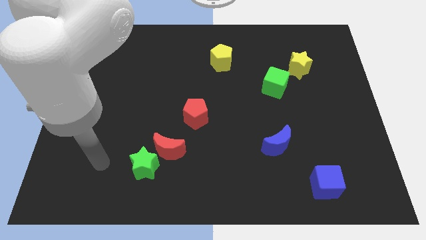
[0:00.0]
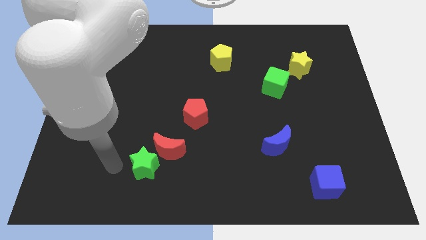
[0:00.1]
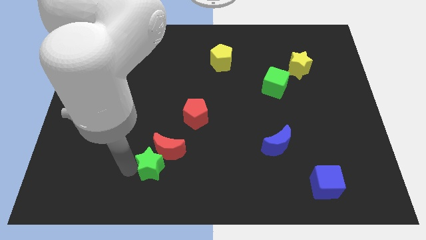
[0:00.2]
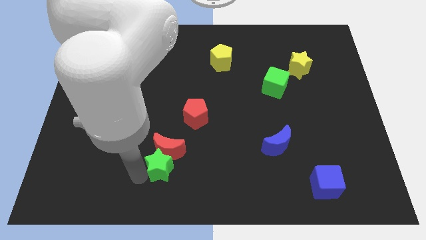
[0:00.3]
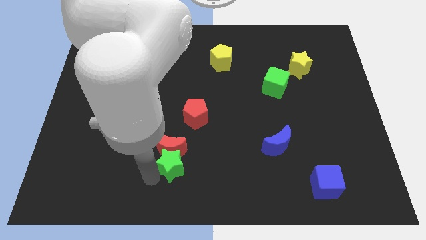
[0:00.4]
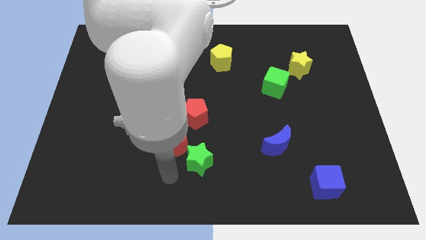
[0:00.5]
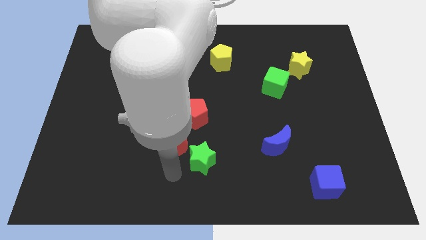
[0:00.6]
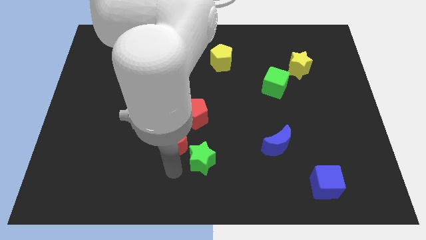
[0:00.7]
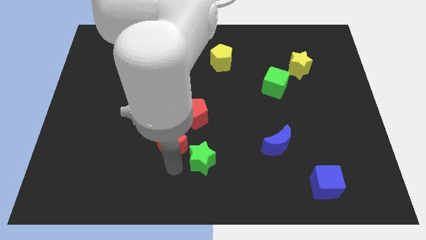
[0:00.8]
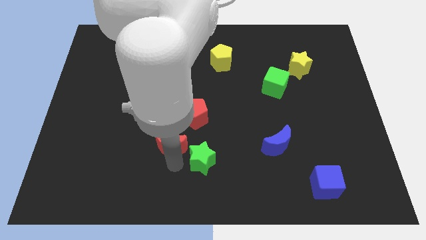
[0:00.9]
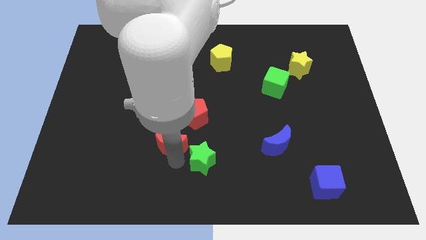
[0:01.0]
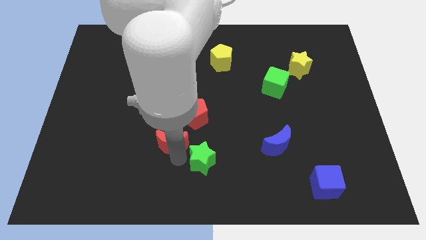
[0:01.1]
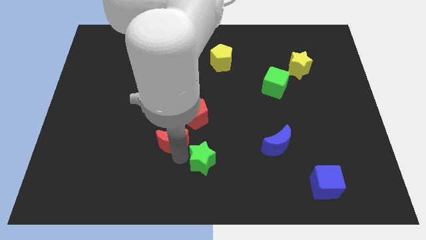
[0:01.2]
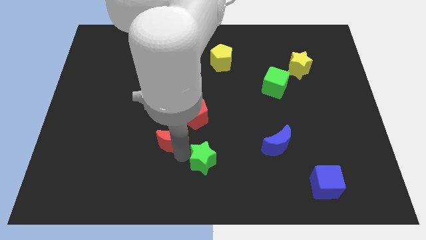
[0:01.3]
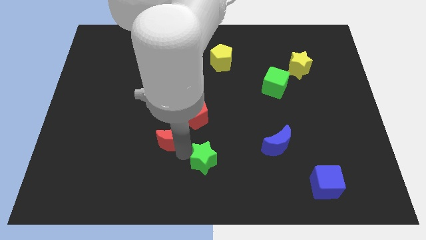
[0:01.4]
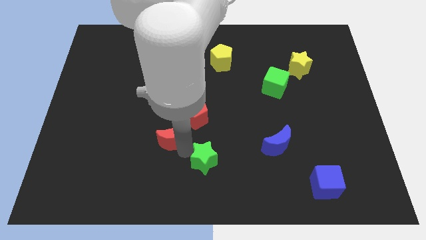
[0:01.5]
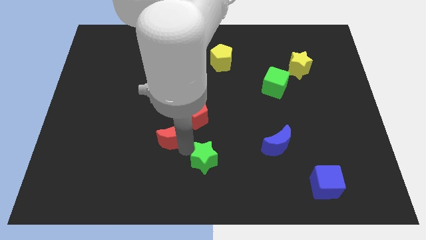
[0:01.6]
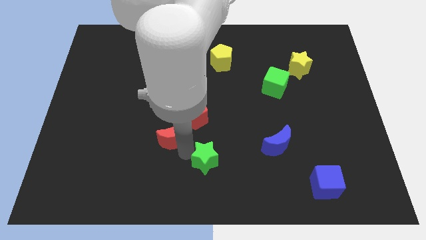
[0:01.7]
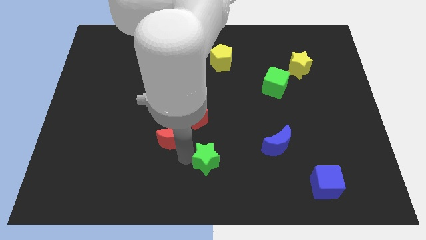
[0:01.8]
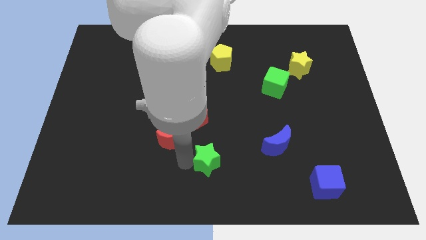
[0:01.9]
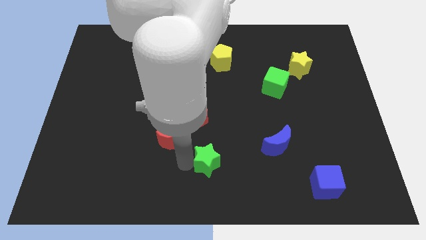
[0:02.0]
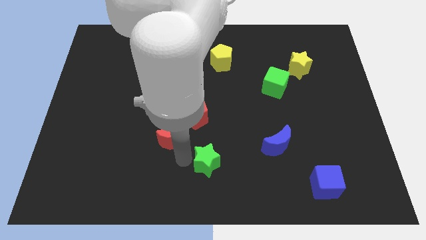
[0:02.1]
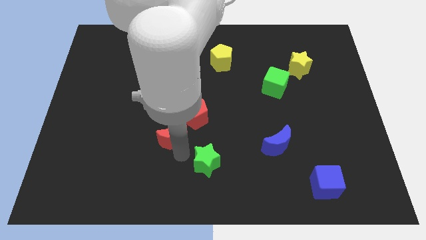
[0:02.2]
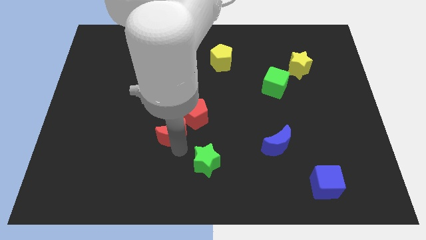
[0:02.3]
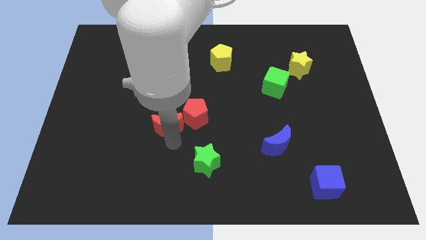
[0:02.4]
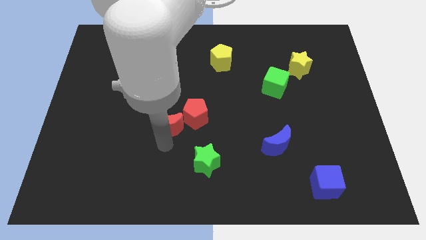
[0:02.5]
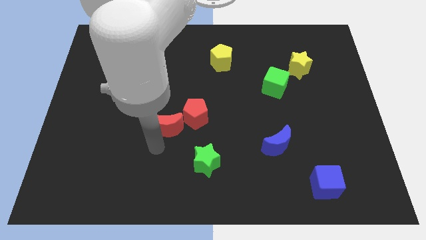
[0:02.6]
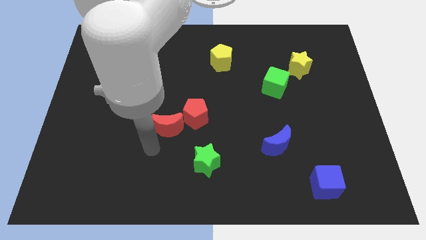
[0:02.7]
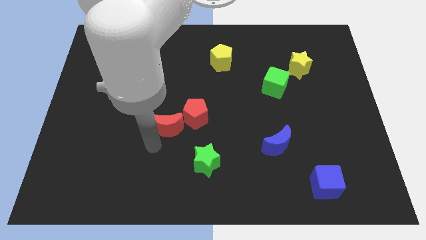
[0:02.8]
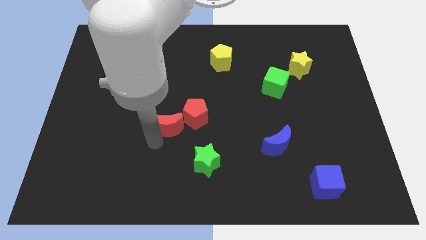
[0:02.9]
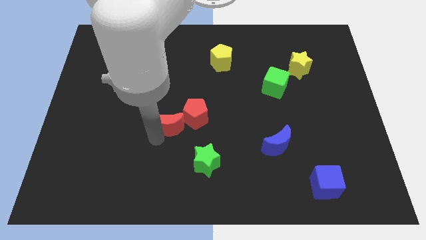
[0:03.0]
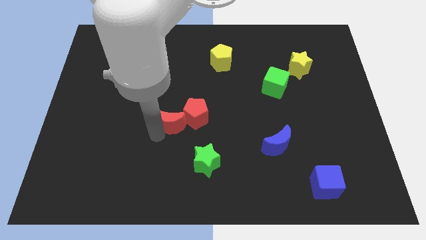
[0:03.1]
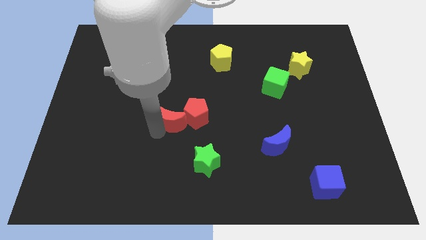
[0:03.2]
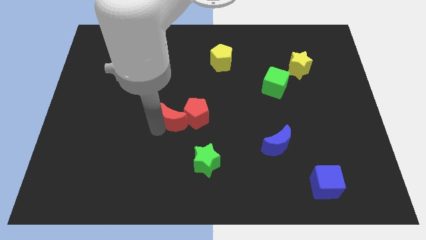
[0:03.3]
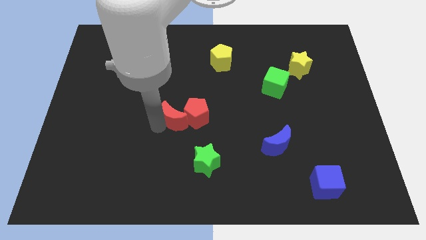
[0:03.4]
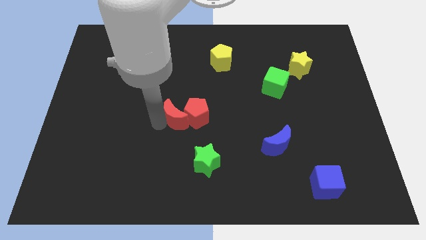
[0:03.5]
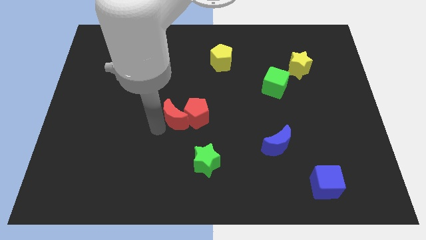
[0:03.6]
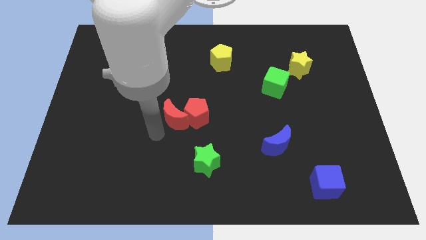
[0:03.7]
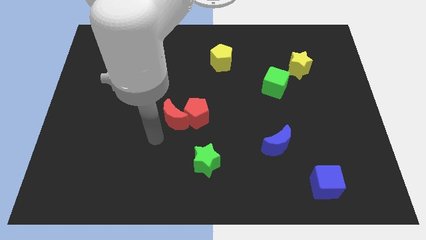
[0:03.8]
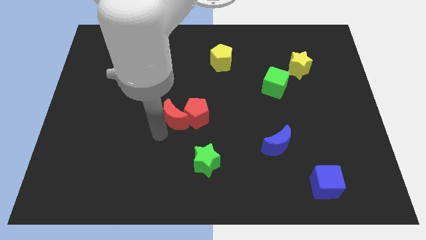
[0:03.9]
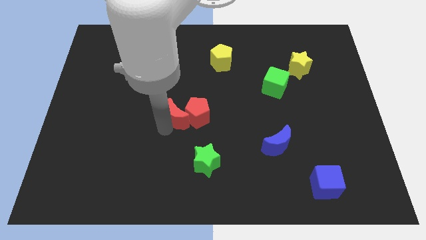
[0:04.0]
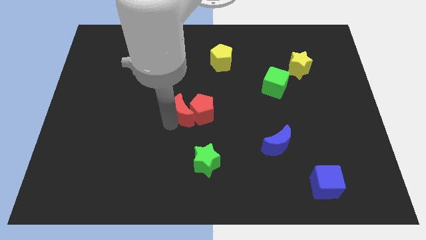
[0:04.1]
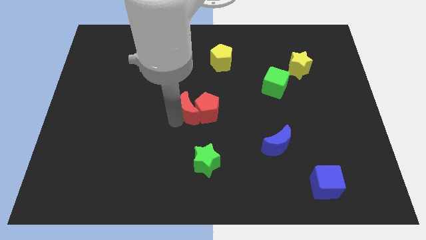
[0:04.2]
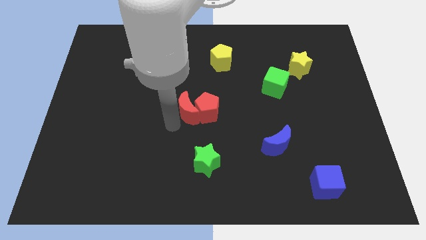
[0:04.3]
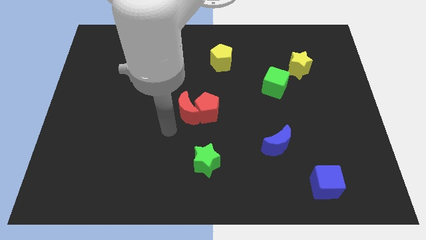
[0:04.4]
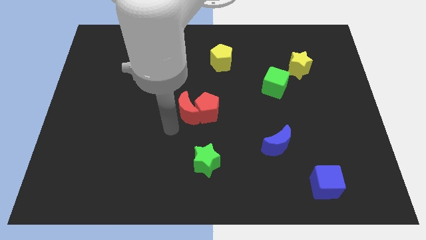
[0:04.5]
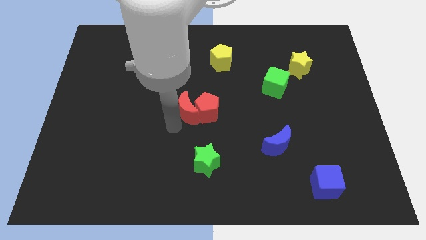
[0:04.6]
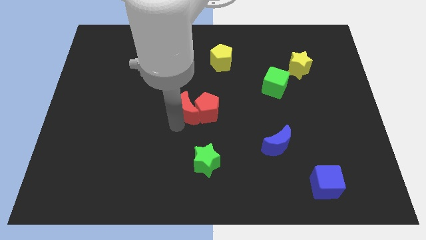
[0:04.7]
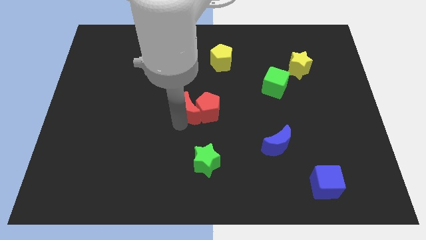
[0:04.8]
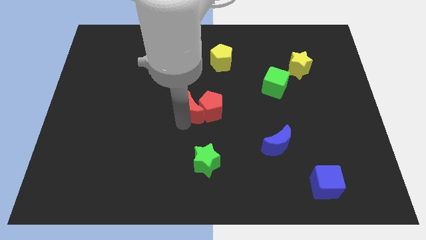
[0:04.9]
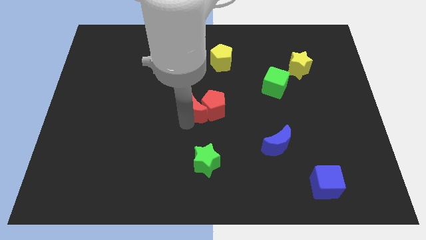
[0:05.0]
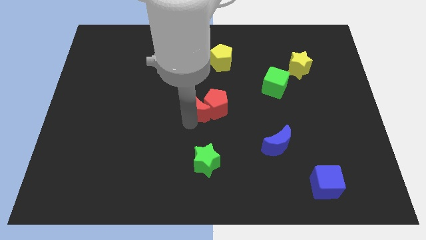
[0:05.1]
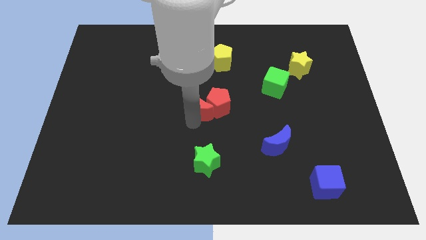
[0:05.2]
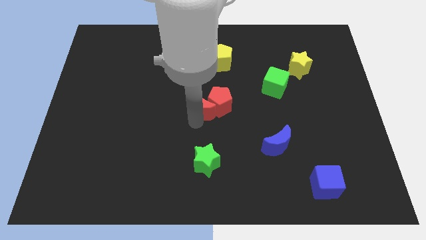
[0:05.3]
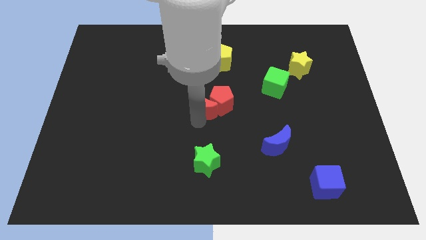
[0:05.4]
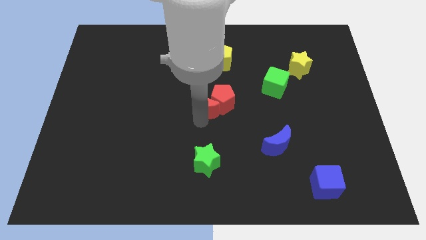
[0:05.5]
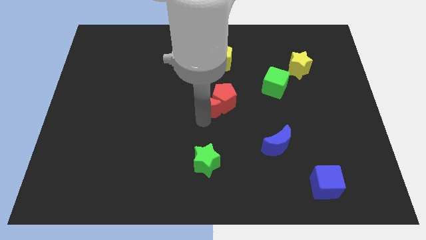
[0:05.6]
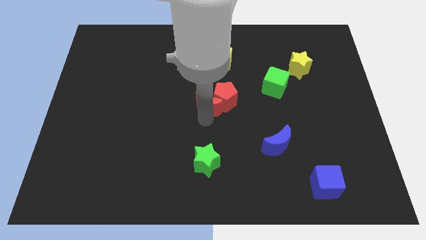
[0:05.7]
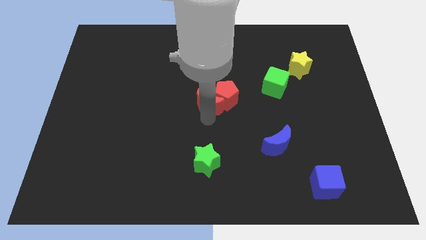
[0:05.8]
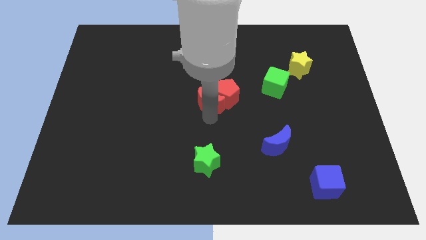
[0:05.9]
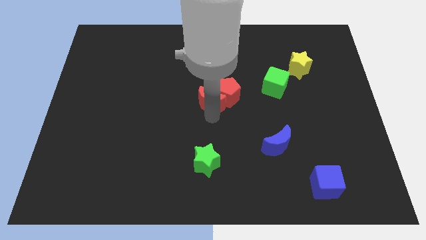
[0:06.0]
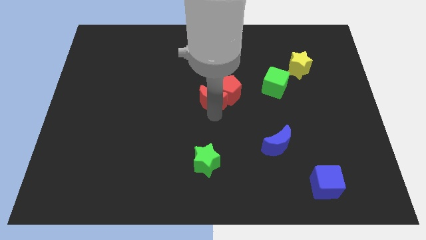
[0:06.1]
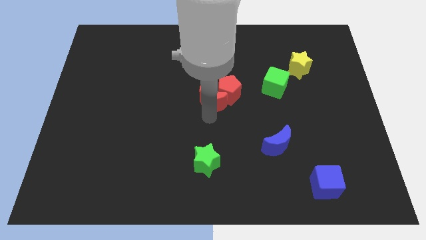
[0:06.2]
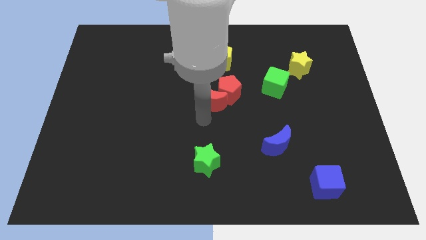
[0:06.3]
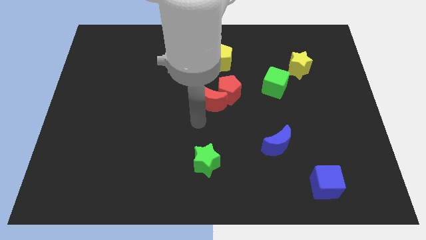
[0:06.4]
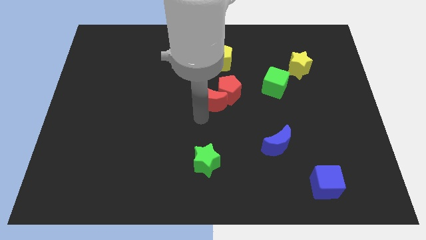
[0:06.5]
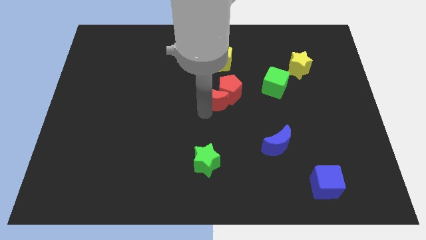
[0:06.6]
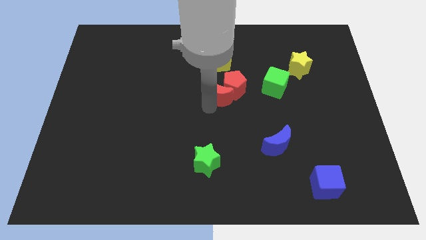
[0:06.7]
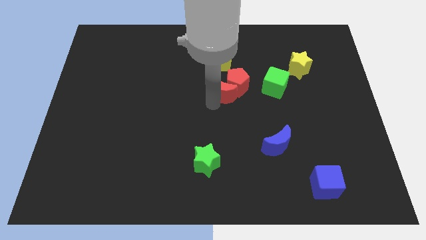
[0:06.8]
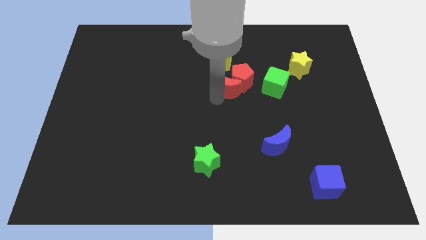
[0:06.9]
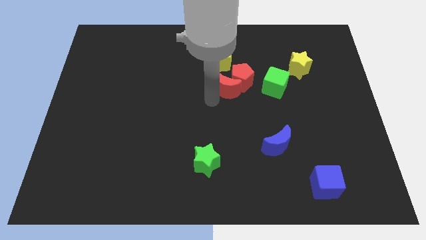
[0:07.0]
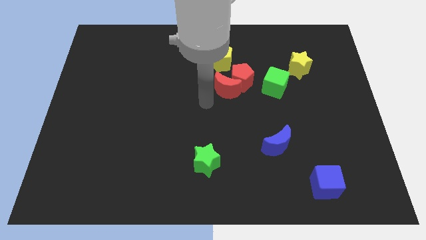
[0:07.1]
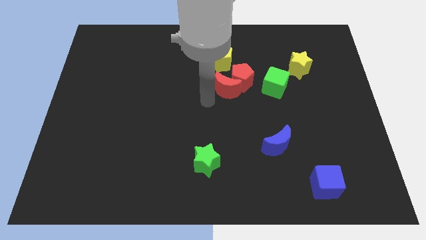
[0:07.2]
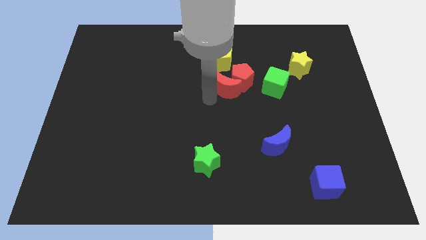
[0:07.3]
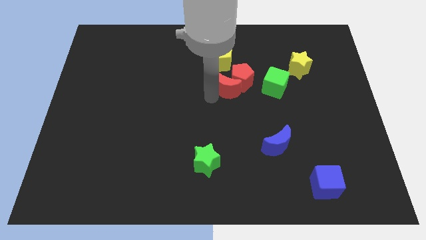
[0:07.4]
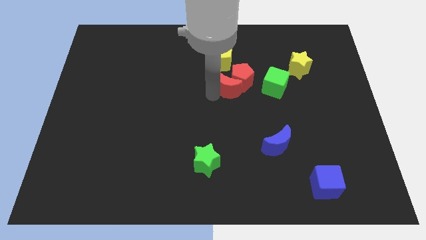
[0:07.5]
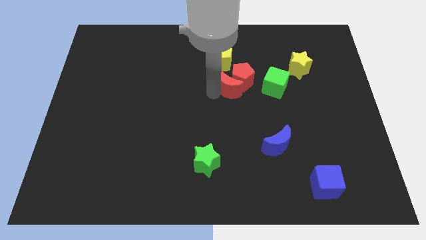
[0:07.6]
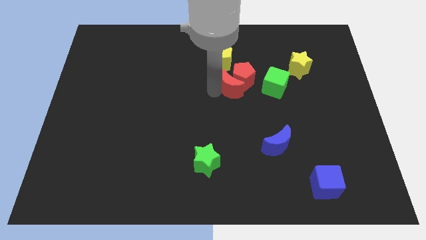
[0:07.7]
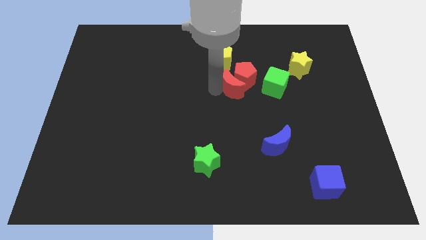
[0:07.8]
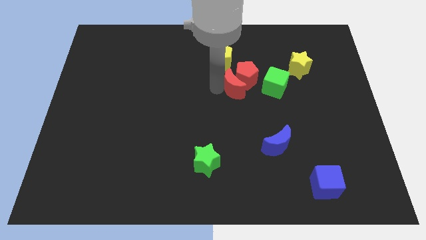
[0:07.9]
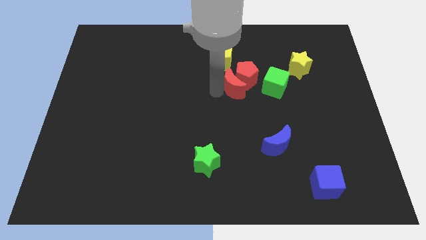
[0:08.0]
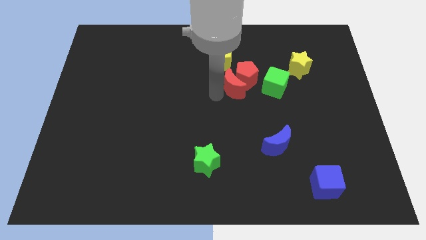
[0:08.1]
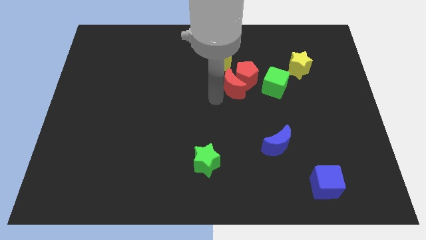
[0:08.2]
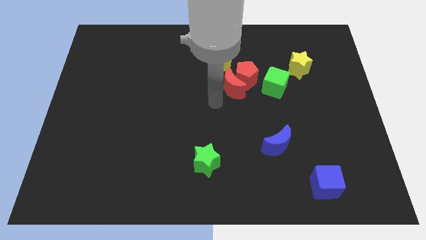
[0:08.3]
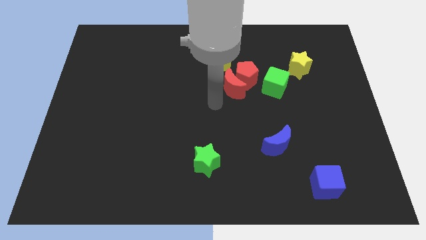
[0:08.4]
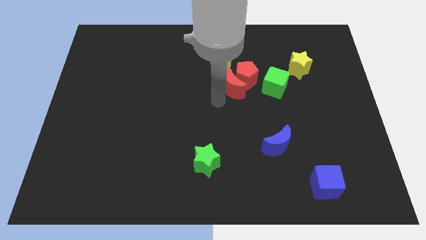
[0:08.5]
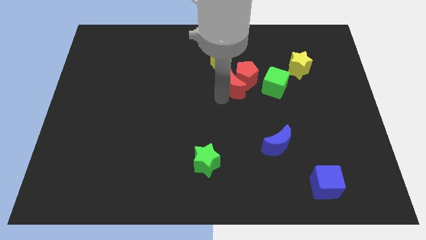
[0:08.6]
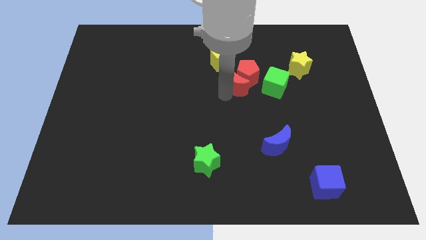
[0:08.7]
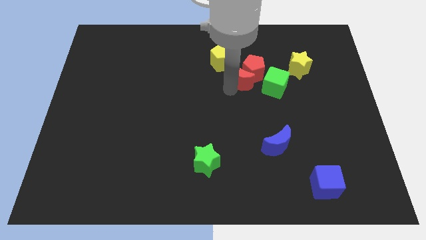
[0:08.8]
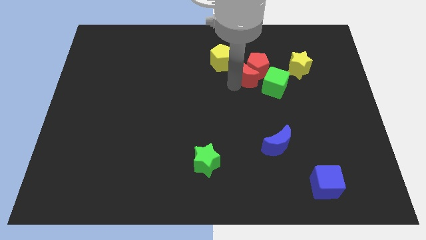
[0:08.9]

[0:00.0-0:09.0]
put the red moon to the left of the yellow star
